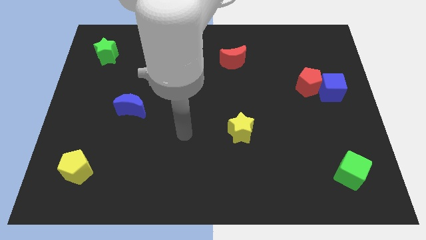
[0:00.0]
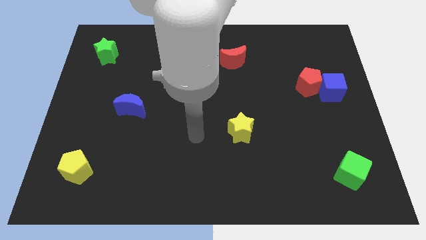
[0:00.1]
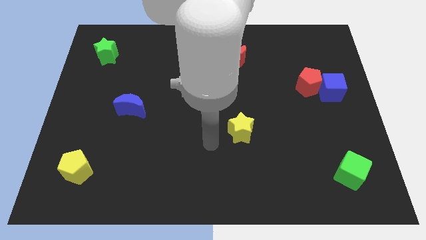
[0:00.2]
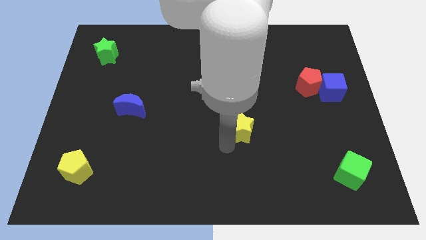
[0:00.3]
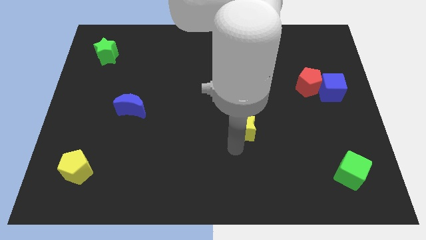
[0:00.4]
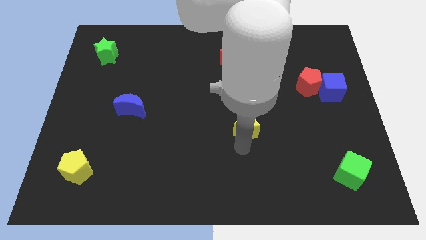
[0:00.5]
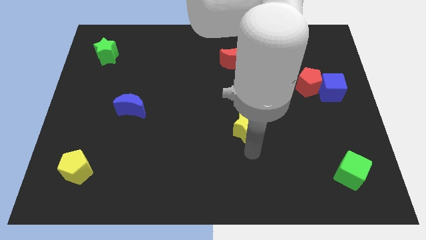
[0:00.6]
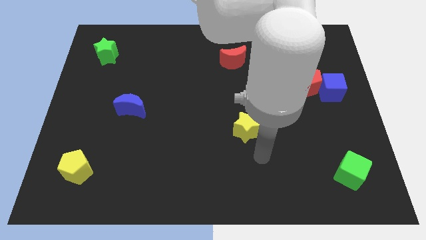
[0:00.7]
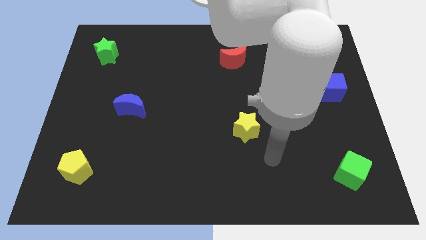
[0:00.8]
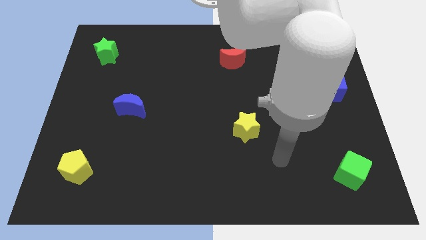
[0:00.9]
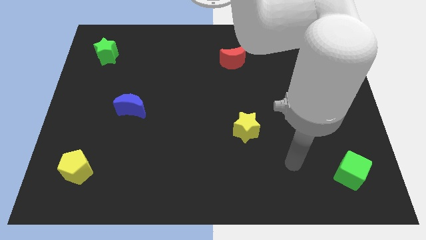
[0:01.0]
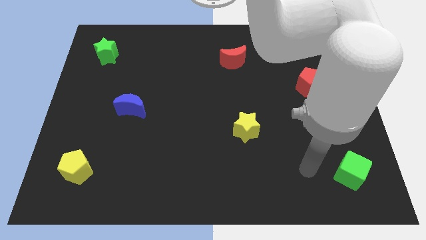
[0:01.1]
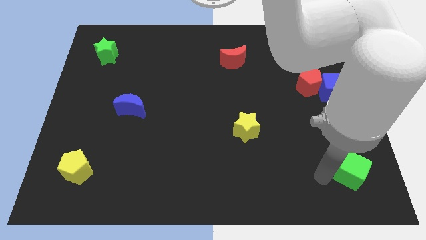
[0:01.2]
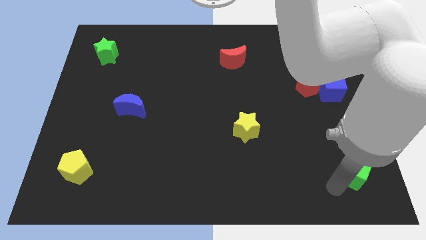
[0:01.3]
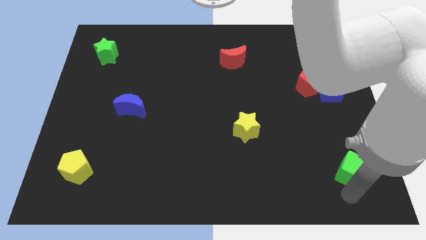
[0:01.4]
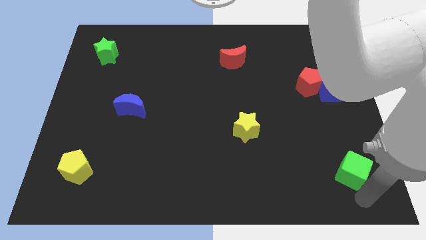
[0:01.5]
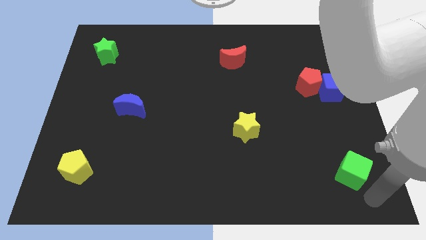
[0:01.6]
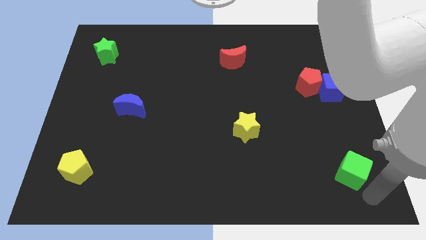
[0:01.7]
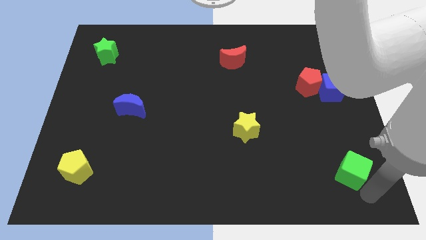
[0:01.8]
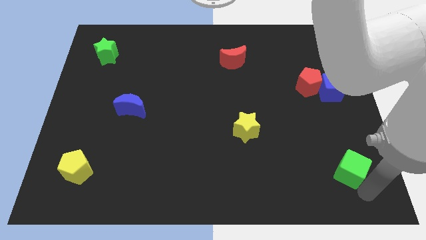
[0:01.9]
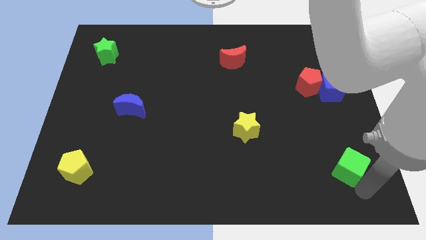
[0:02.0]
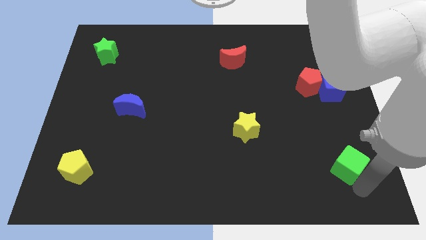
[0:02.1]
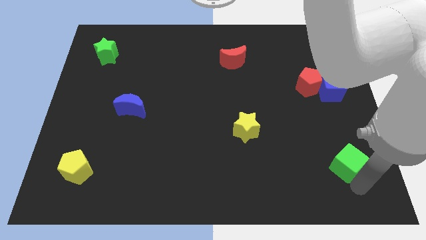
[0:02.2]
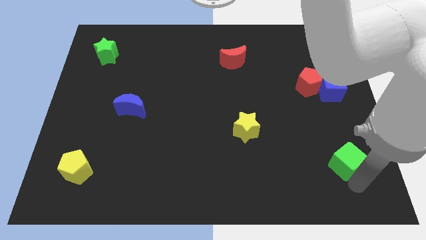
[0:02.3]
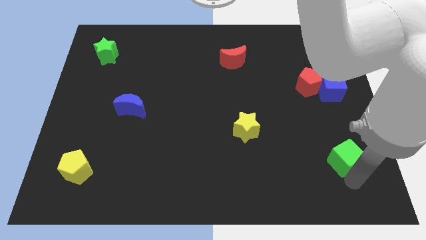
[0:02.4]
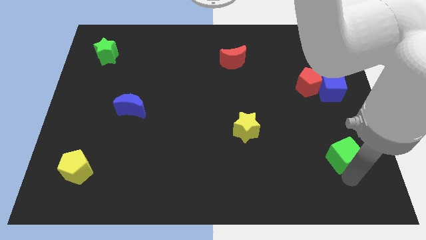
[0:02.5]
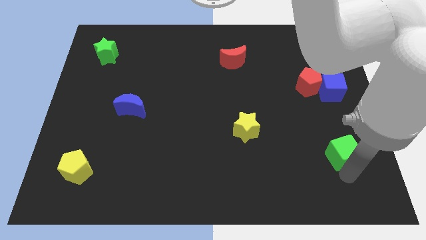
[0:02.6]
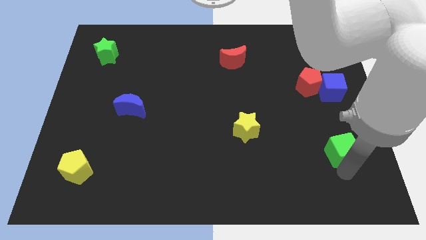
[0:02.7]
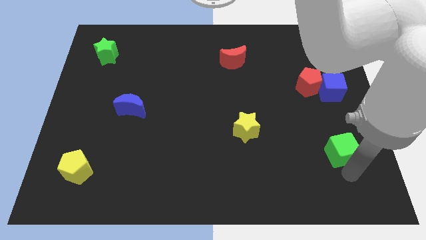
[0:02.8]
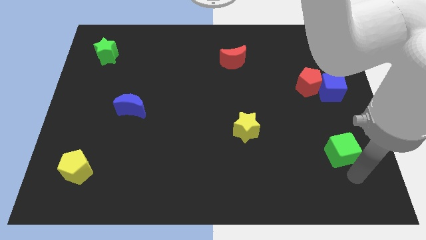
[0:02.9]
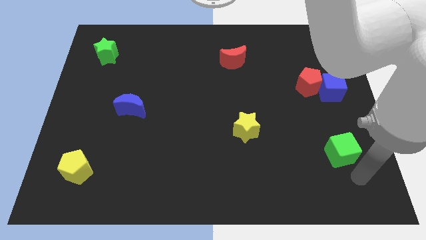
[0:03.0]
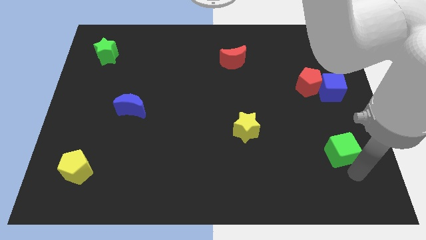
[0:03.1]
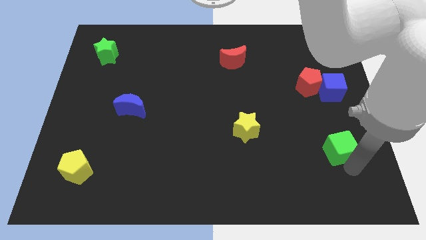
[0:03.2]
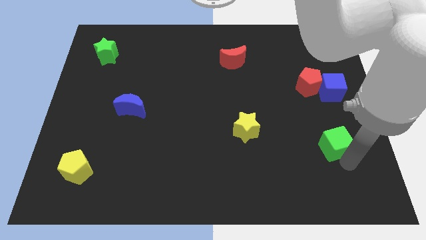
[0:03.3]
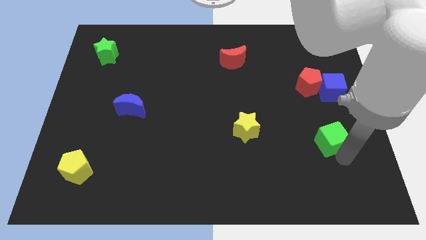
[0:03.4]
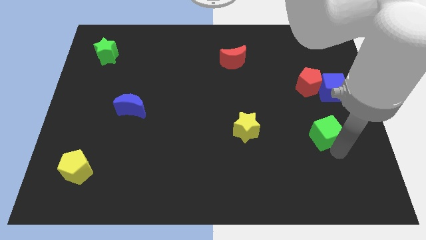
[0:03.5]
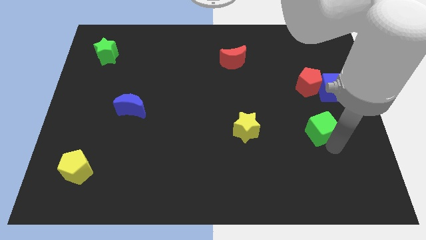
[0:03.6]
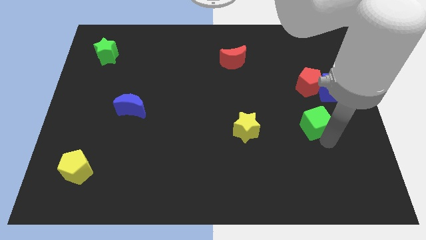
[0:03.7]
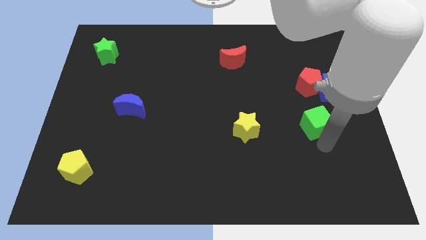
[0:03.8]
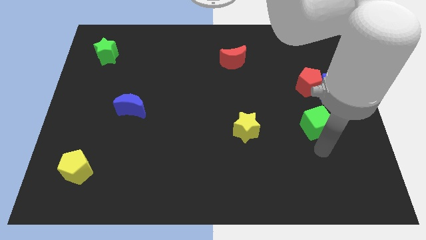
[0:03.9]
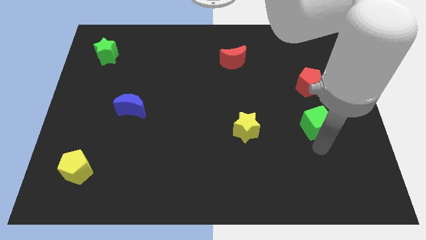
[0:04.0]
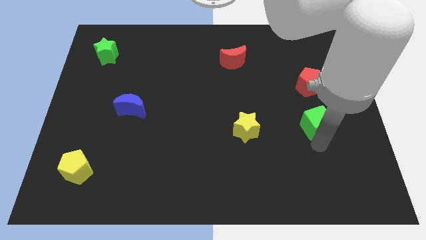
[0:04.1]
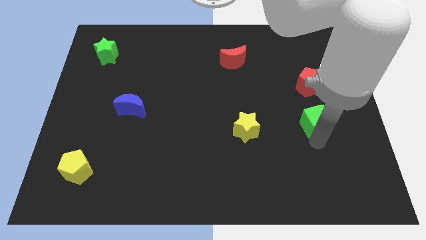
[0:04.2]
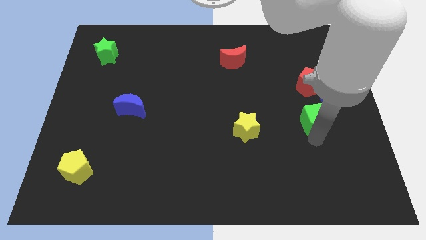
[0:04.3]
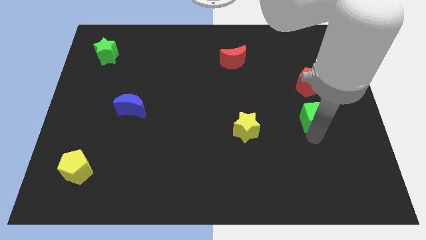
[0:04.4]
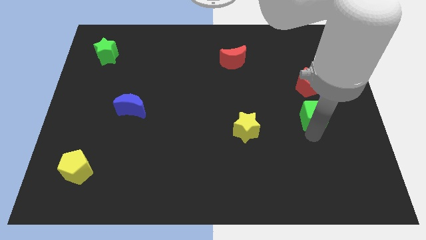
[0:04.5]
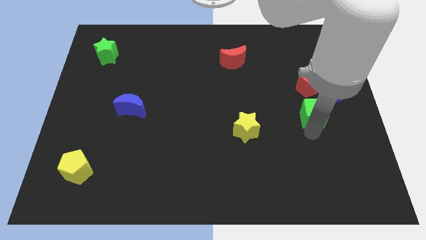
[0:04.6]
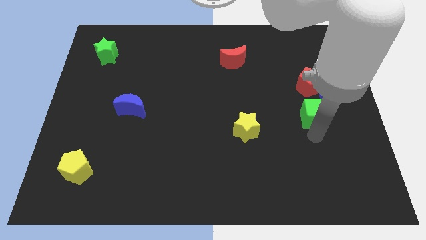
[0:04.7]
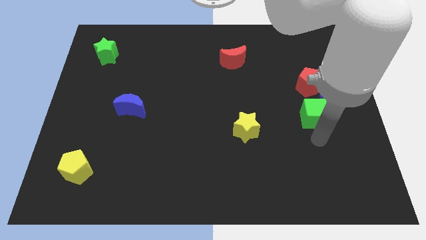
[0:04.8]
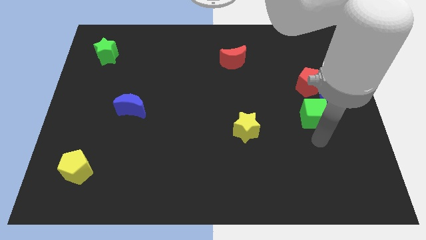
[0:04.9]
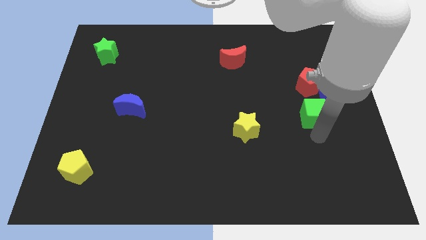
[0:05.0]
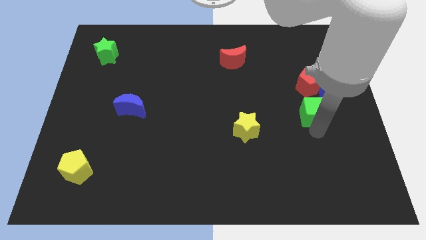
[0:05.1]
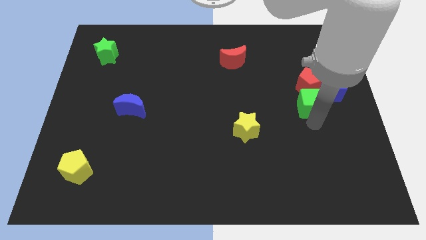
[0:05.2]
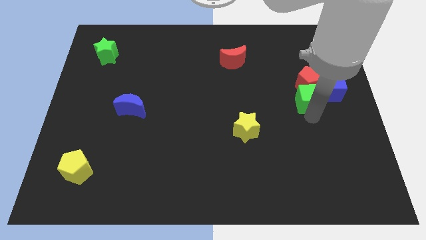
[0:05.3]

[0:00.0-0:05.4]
slide the green cube to the red pentagon
